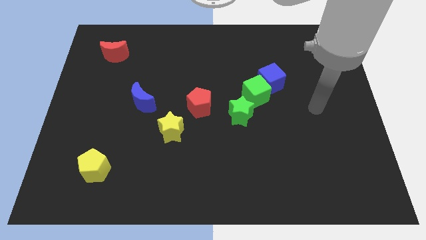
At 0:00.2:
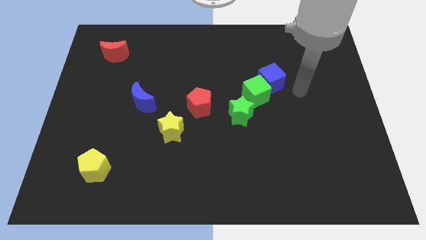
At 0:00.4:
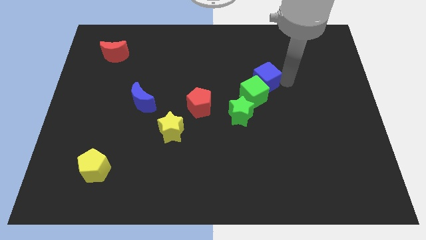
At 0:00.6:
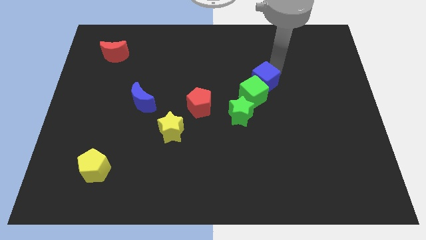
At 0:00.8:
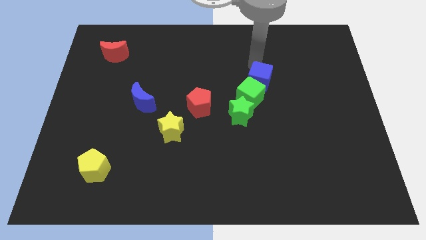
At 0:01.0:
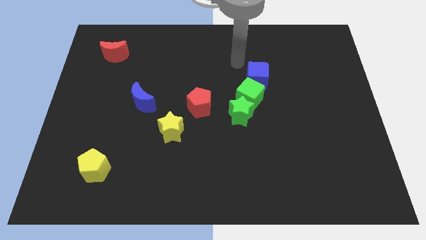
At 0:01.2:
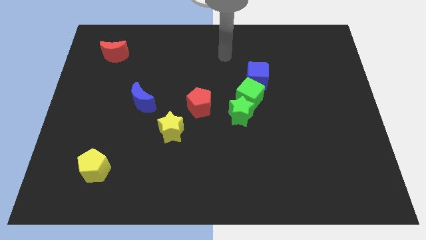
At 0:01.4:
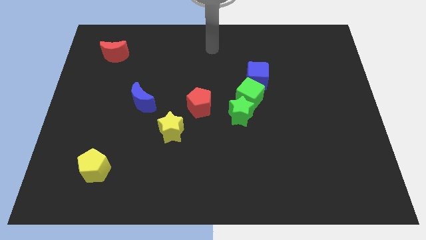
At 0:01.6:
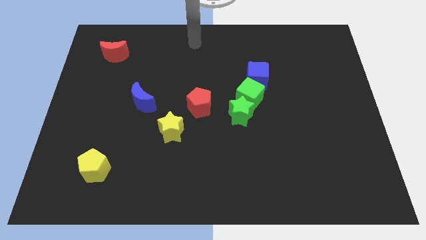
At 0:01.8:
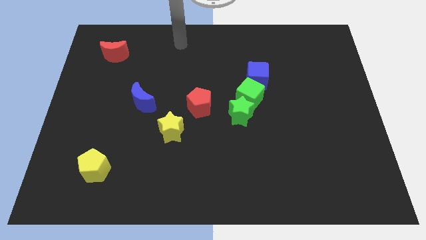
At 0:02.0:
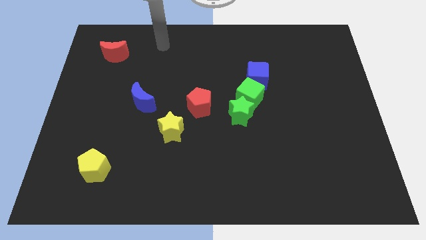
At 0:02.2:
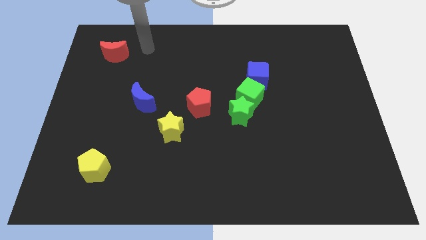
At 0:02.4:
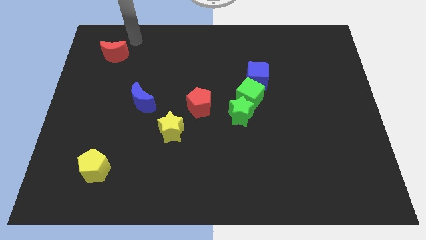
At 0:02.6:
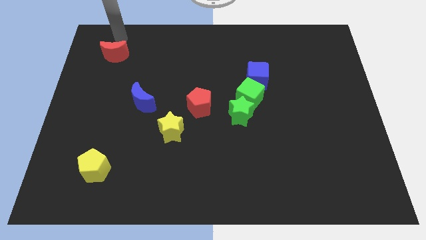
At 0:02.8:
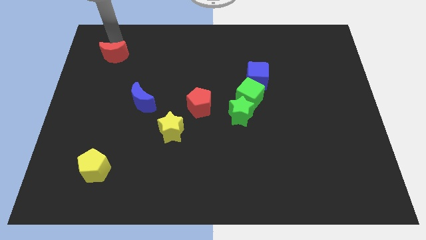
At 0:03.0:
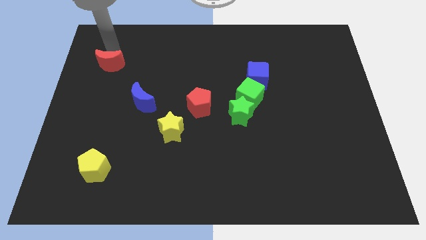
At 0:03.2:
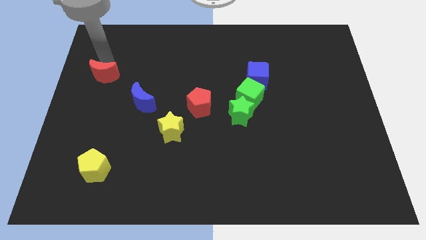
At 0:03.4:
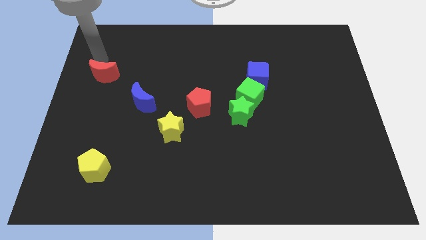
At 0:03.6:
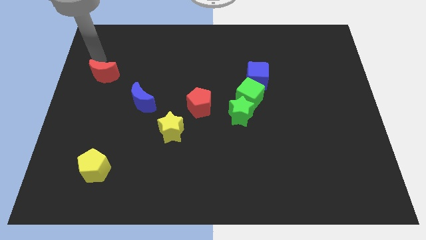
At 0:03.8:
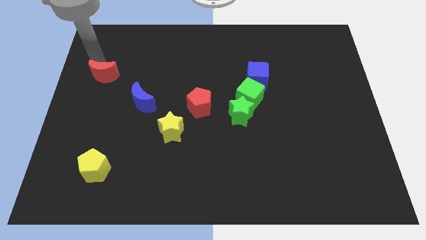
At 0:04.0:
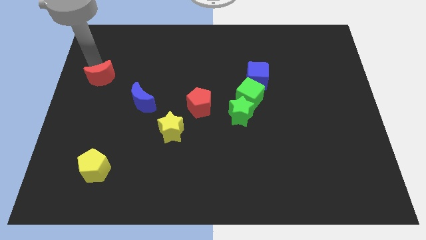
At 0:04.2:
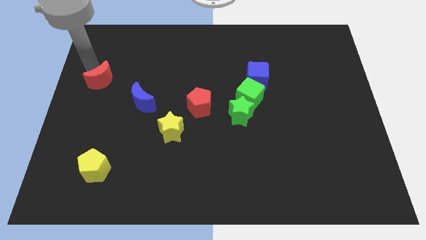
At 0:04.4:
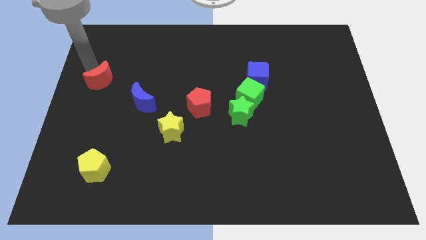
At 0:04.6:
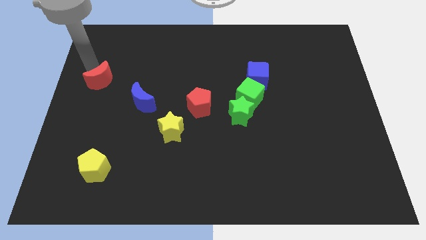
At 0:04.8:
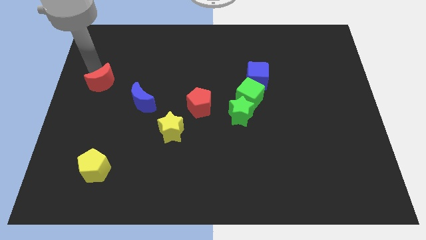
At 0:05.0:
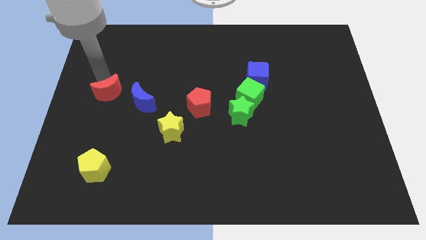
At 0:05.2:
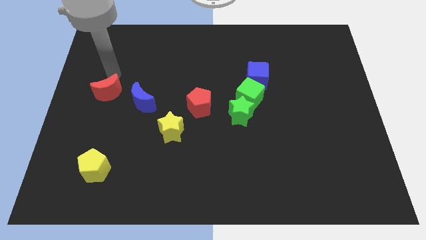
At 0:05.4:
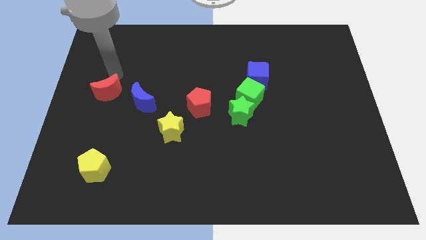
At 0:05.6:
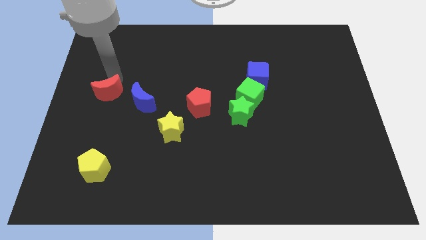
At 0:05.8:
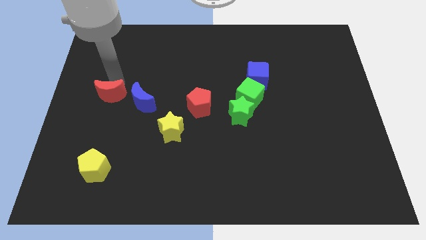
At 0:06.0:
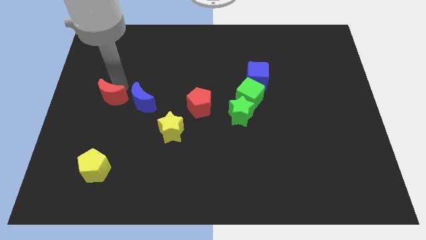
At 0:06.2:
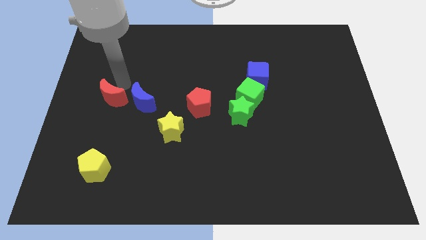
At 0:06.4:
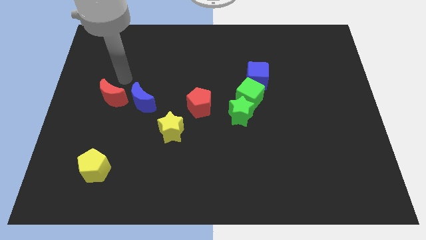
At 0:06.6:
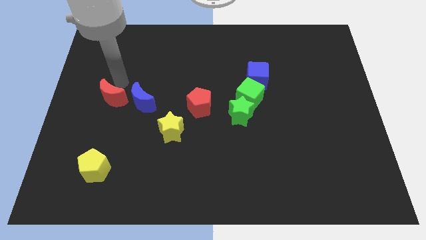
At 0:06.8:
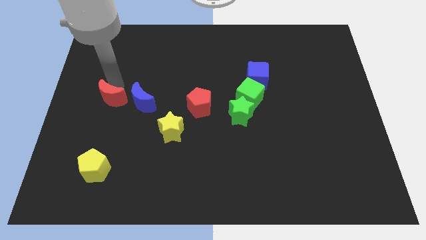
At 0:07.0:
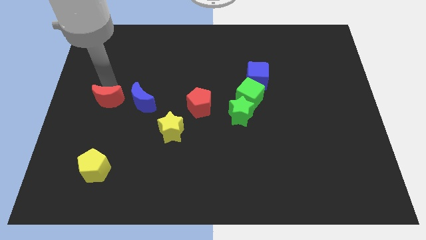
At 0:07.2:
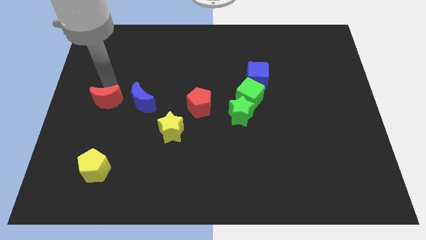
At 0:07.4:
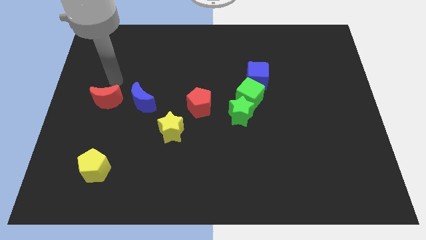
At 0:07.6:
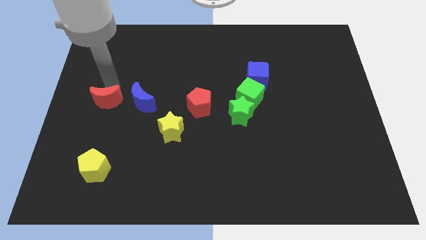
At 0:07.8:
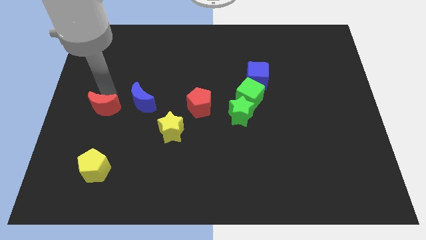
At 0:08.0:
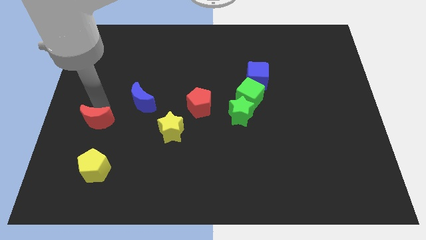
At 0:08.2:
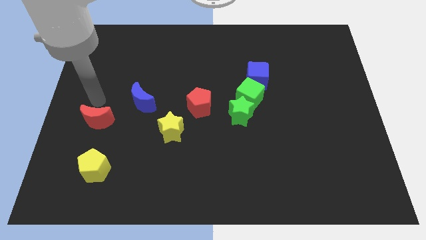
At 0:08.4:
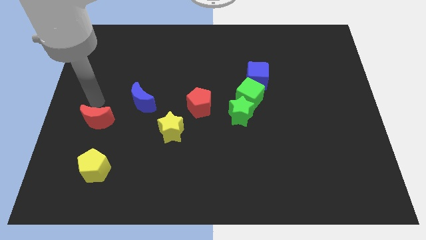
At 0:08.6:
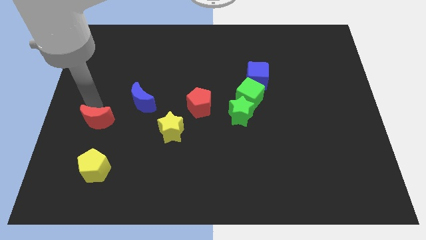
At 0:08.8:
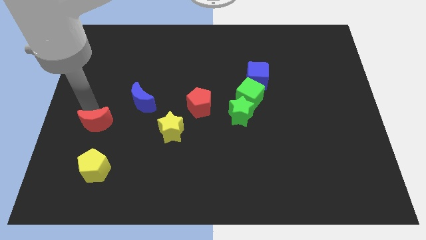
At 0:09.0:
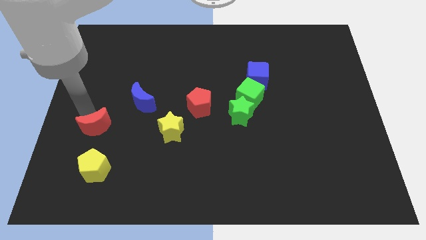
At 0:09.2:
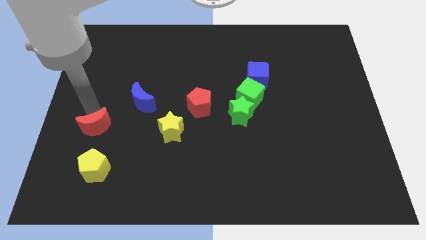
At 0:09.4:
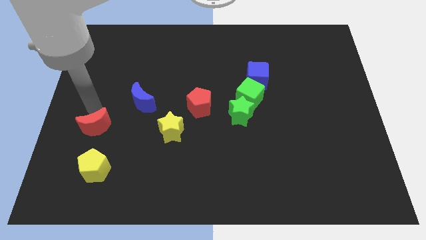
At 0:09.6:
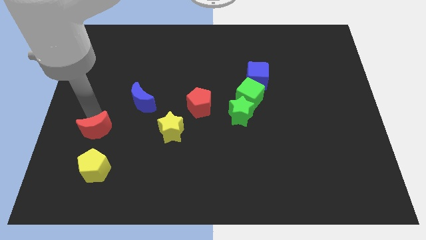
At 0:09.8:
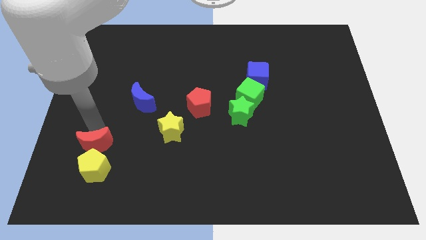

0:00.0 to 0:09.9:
push the red moon towards the yellow pentagon

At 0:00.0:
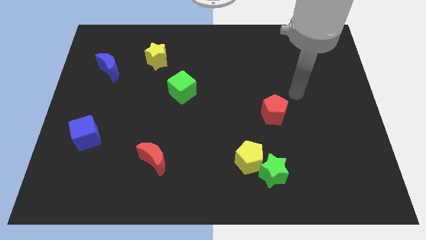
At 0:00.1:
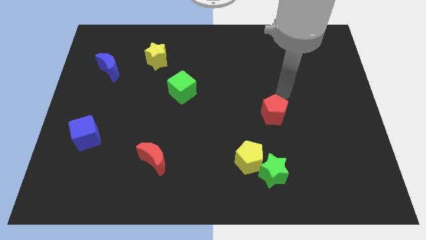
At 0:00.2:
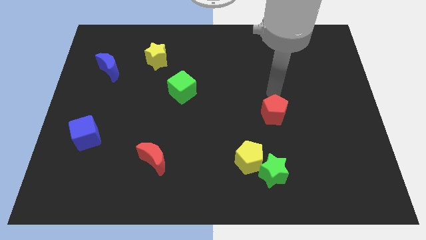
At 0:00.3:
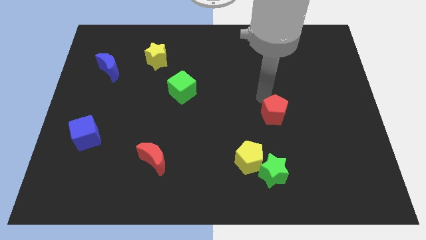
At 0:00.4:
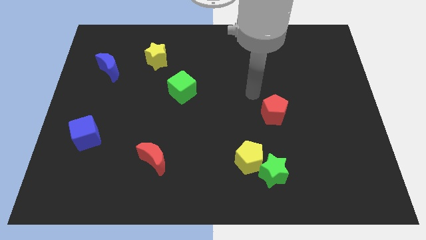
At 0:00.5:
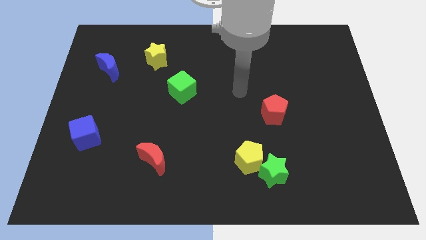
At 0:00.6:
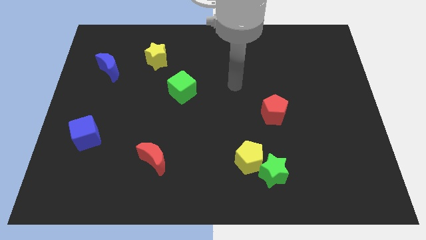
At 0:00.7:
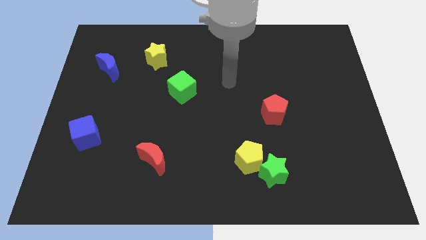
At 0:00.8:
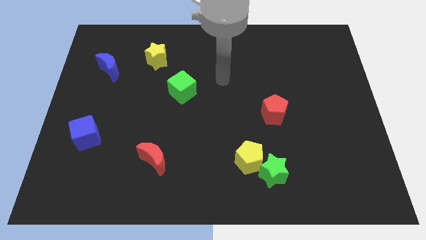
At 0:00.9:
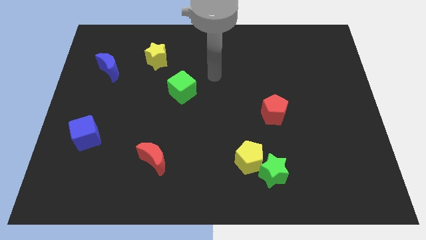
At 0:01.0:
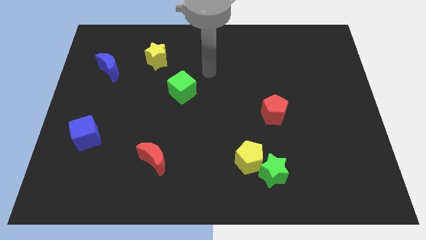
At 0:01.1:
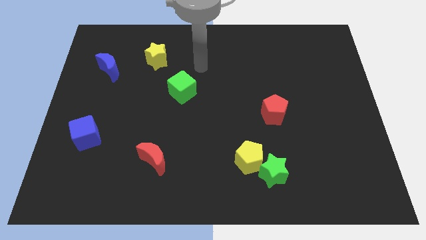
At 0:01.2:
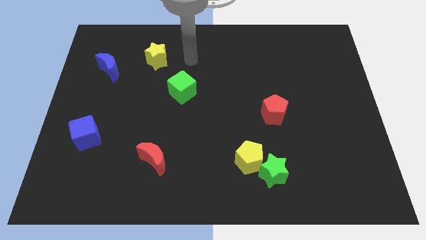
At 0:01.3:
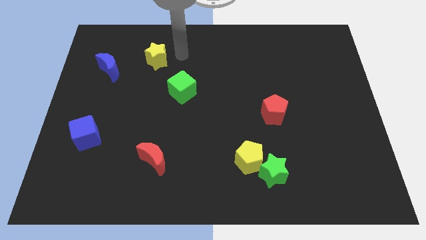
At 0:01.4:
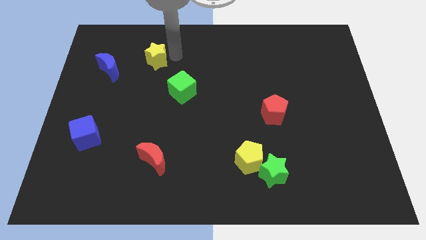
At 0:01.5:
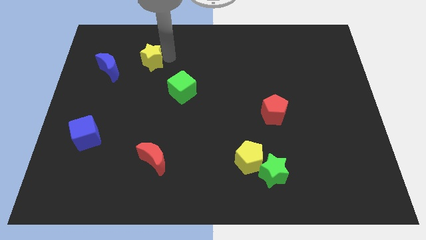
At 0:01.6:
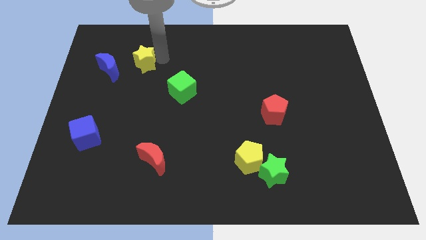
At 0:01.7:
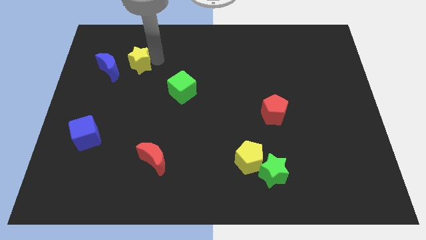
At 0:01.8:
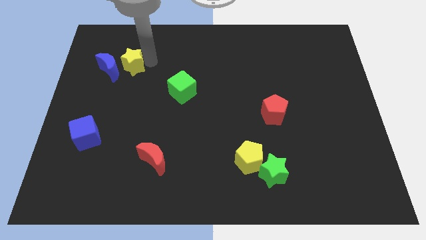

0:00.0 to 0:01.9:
push the yellow star to the blue moon

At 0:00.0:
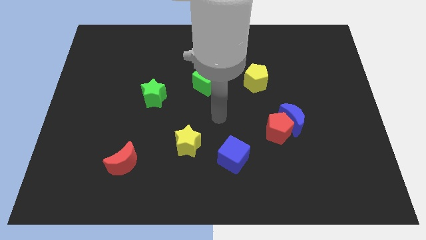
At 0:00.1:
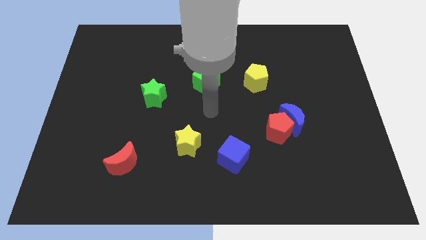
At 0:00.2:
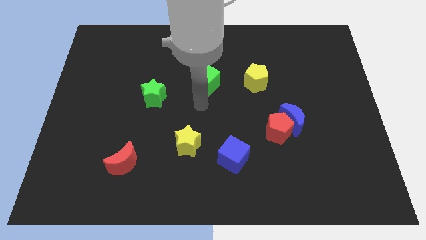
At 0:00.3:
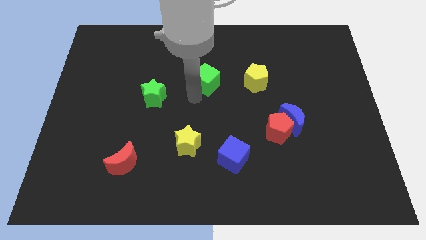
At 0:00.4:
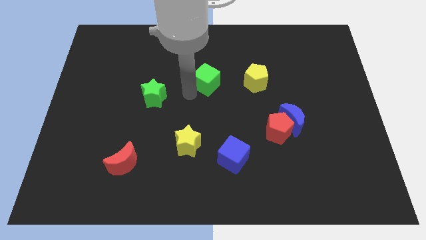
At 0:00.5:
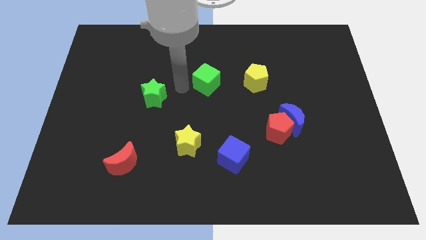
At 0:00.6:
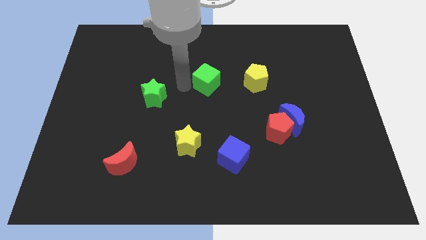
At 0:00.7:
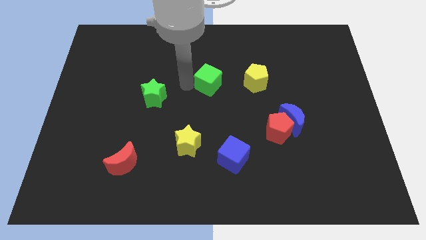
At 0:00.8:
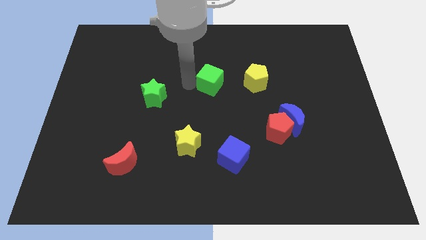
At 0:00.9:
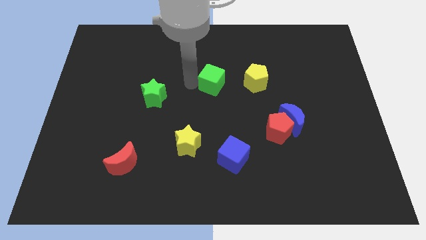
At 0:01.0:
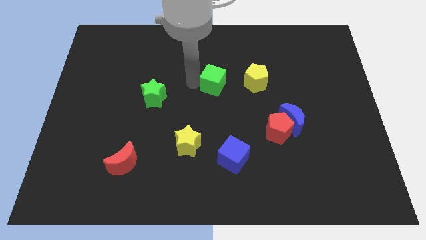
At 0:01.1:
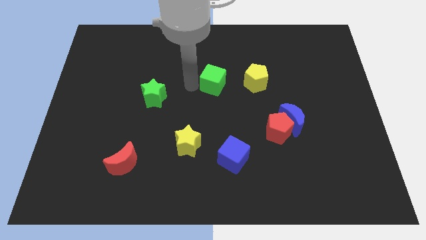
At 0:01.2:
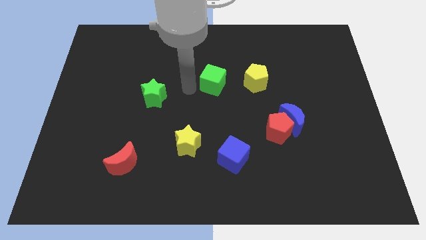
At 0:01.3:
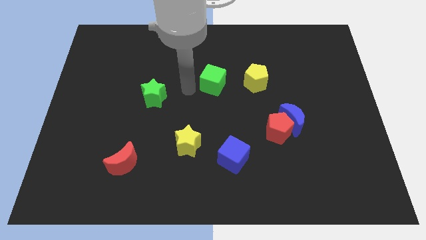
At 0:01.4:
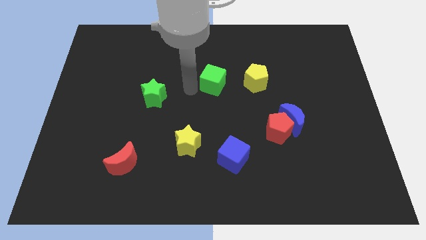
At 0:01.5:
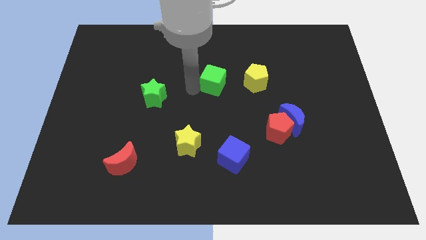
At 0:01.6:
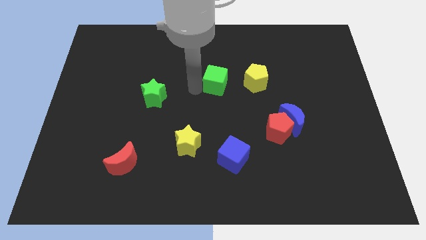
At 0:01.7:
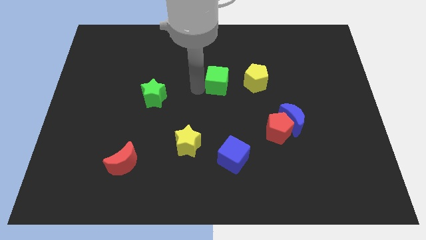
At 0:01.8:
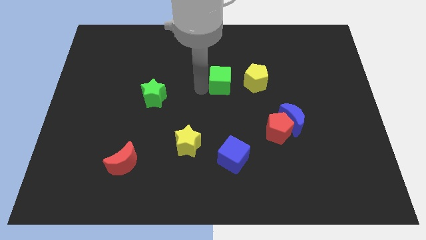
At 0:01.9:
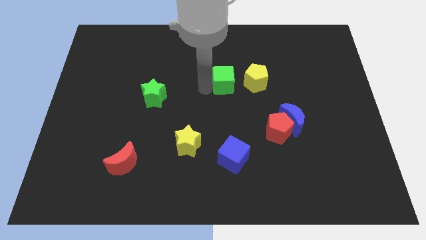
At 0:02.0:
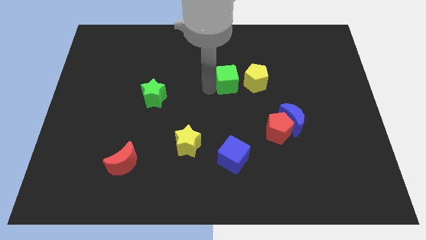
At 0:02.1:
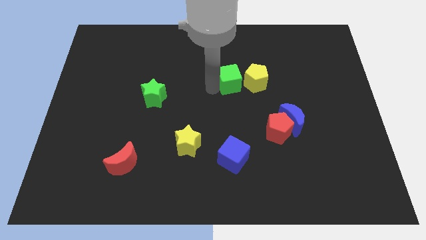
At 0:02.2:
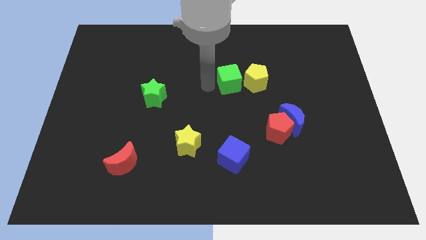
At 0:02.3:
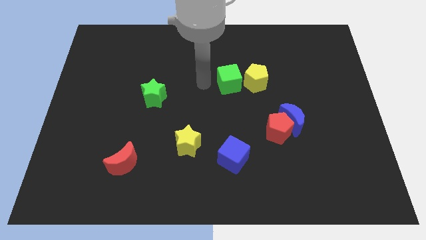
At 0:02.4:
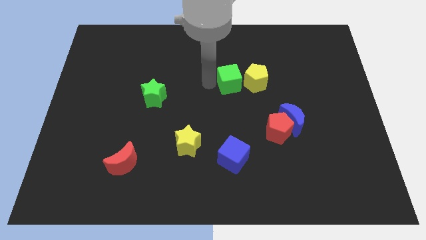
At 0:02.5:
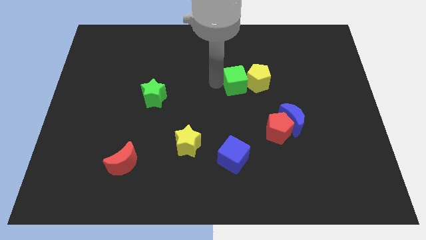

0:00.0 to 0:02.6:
put the green cube next to the yellow pentagon
